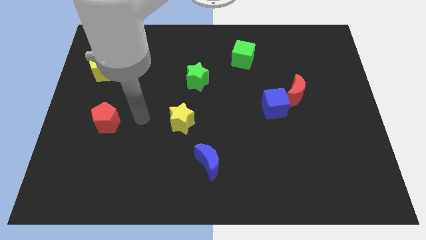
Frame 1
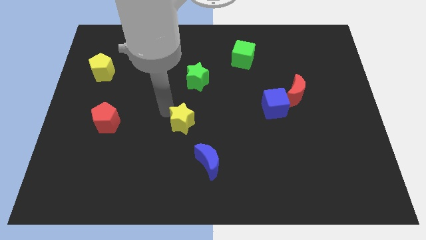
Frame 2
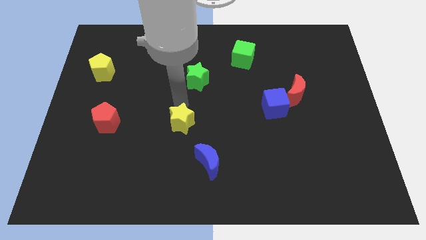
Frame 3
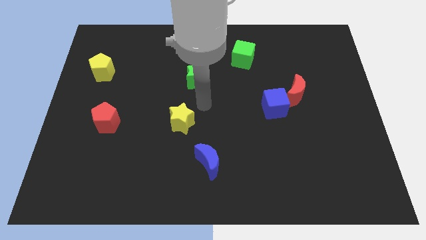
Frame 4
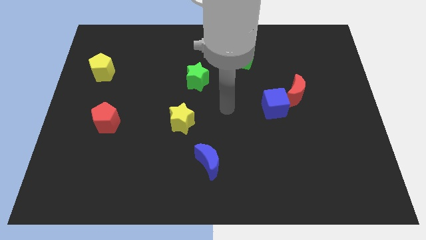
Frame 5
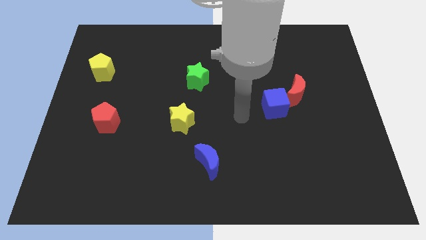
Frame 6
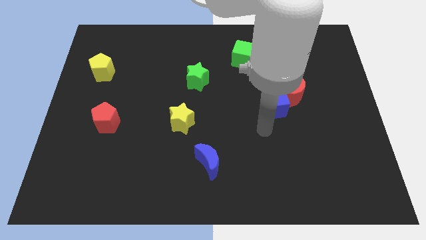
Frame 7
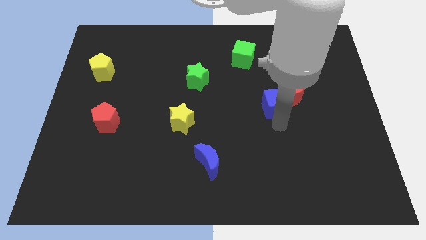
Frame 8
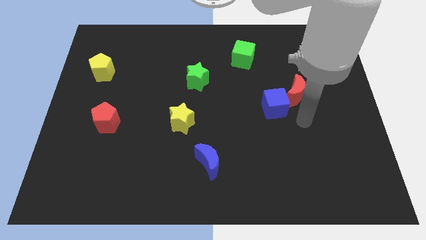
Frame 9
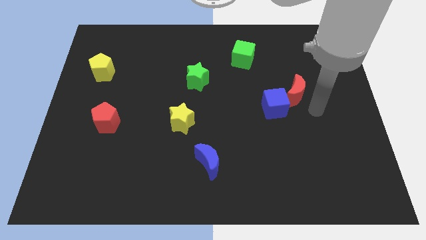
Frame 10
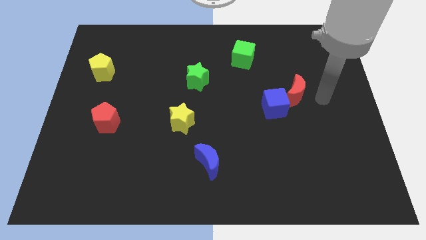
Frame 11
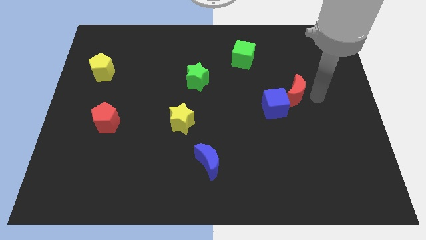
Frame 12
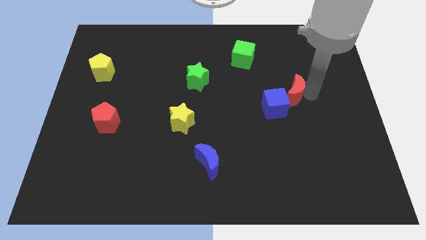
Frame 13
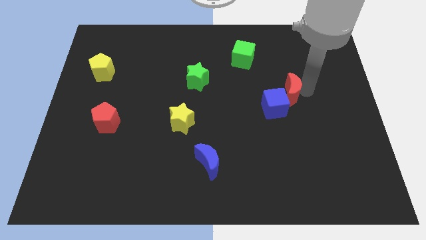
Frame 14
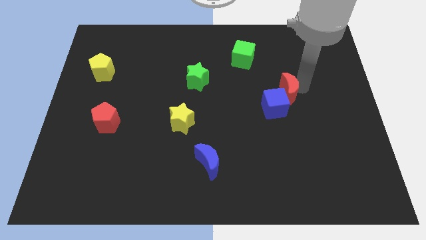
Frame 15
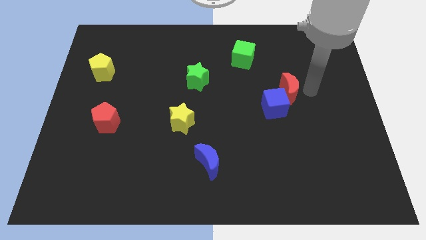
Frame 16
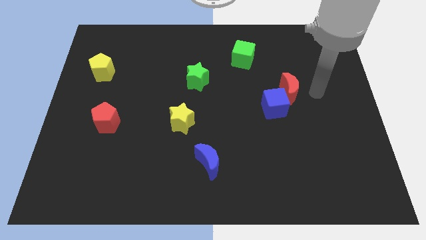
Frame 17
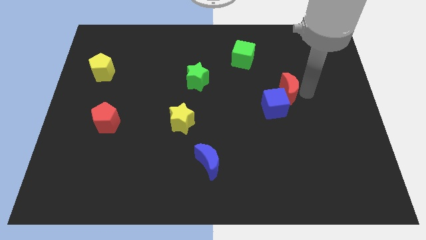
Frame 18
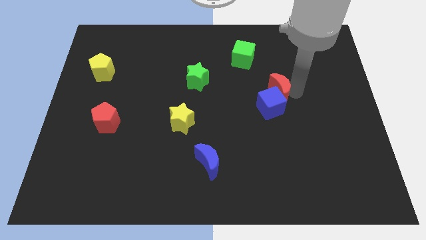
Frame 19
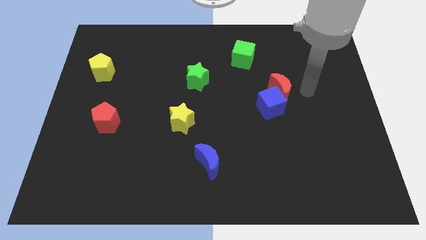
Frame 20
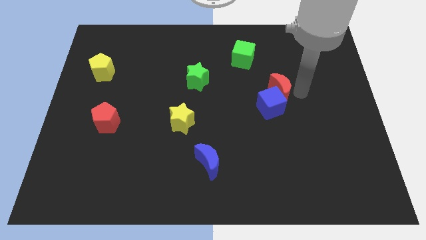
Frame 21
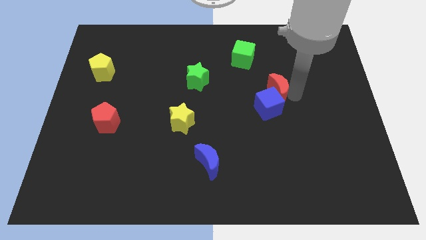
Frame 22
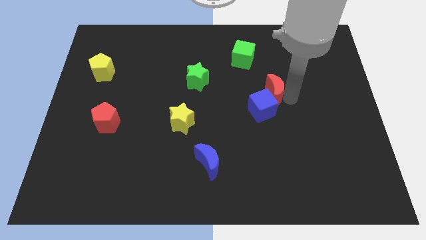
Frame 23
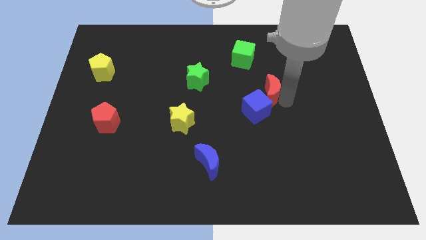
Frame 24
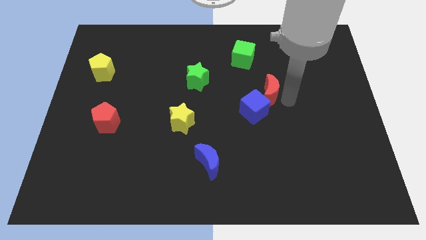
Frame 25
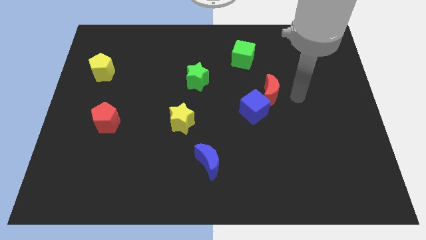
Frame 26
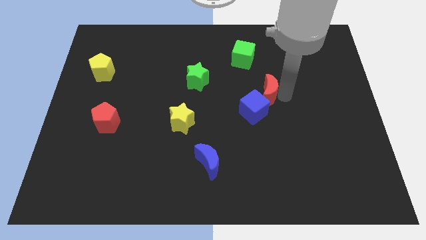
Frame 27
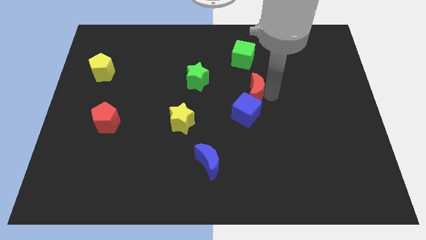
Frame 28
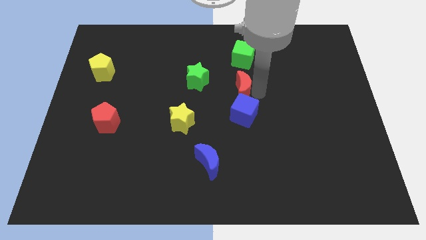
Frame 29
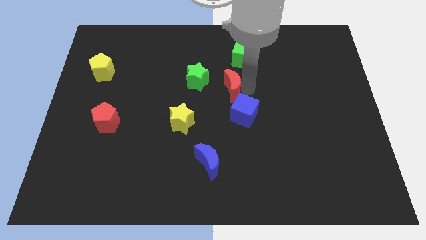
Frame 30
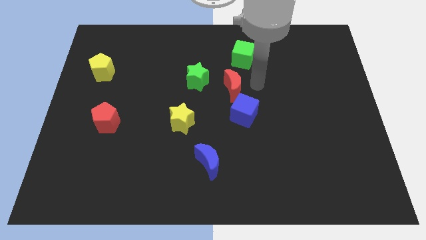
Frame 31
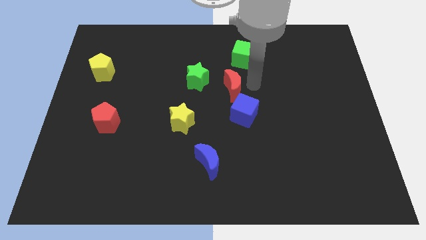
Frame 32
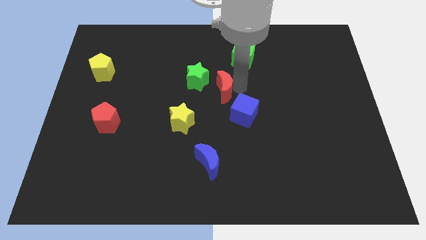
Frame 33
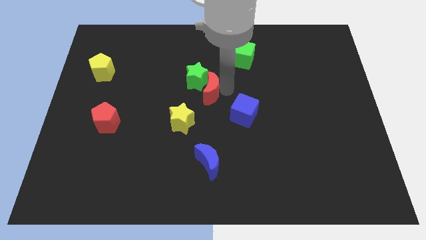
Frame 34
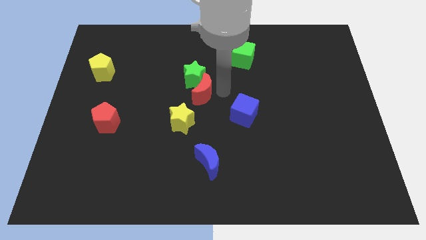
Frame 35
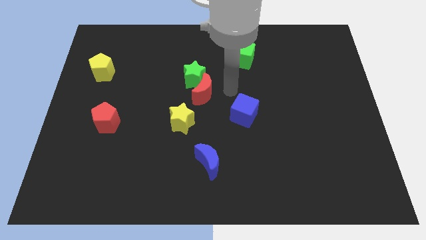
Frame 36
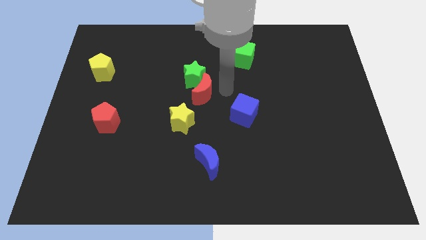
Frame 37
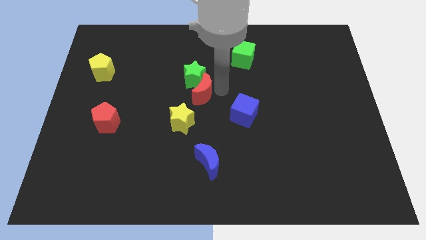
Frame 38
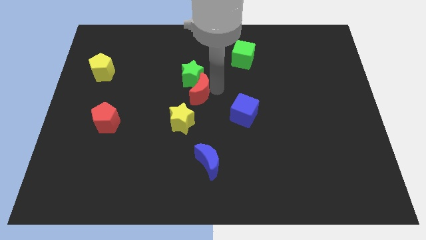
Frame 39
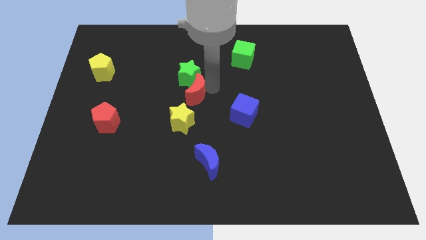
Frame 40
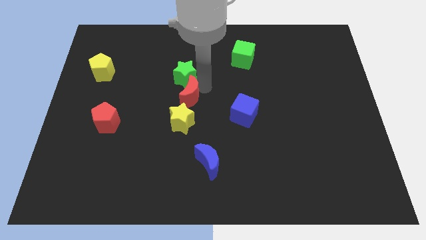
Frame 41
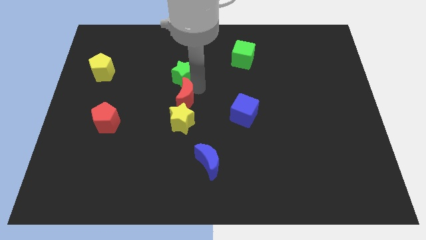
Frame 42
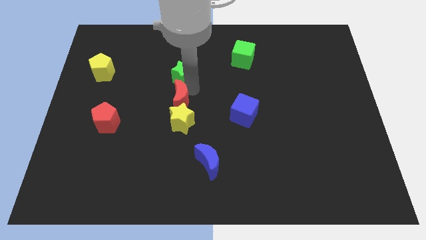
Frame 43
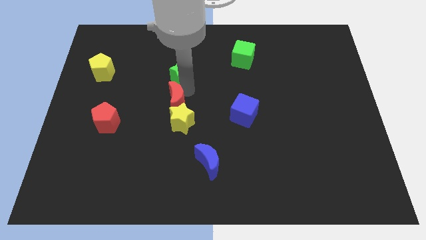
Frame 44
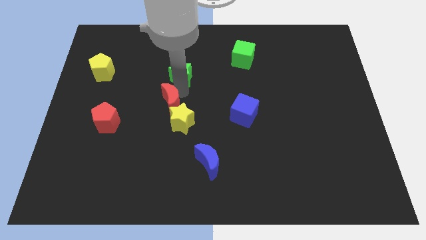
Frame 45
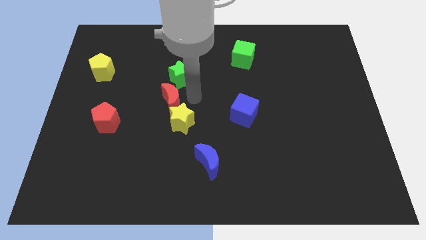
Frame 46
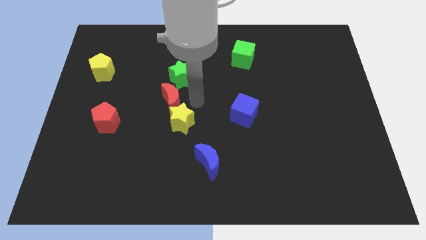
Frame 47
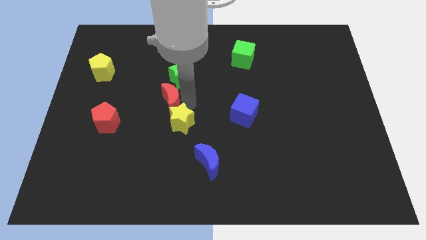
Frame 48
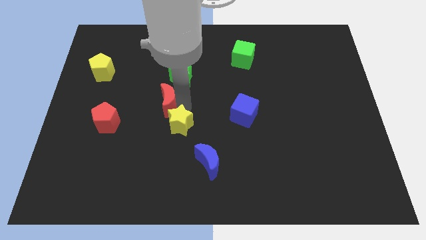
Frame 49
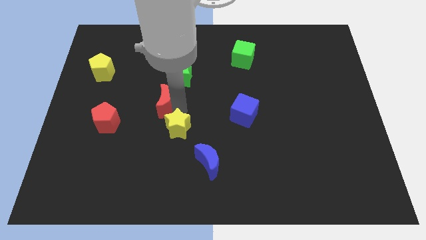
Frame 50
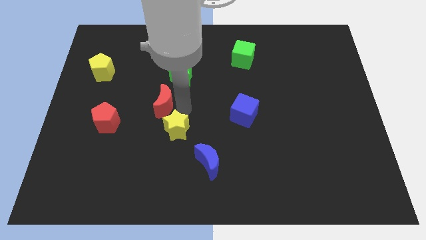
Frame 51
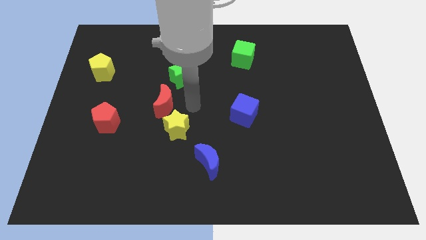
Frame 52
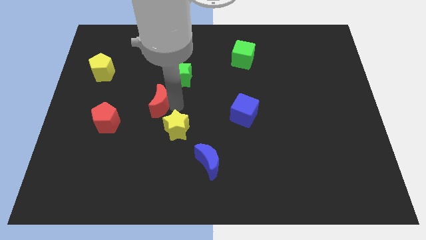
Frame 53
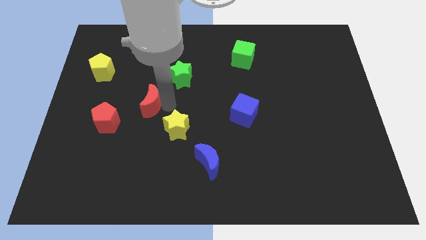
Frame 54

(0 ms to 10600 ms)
move the red moon diagonally up and to the right of the red pentagon

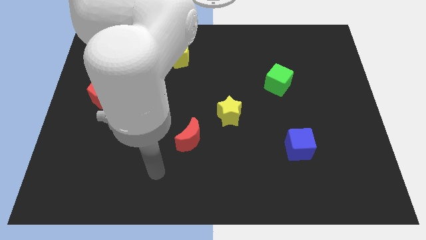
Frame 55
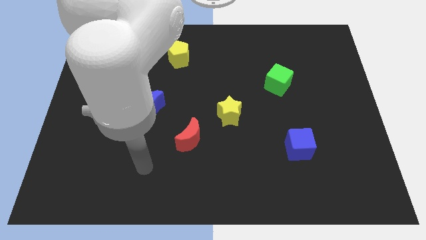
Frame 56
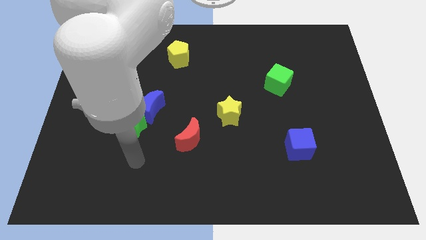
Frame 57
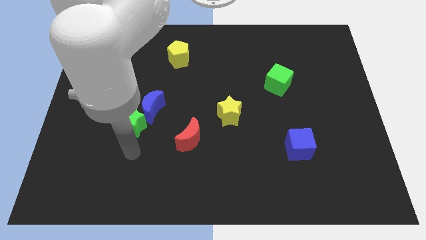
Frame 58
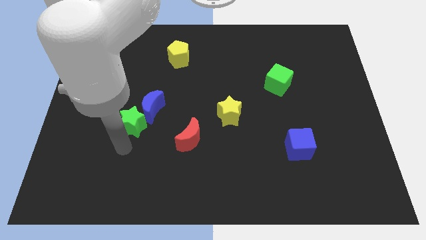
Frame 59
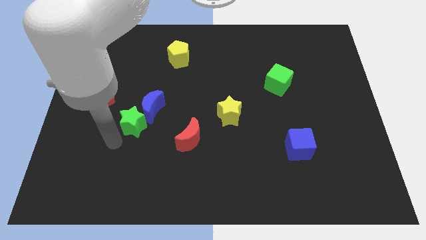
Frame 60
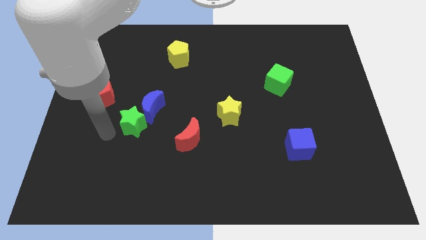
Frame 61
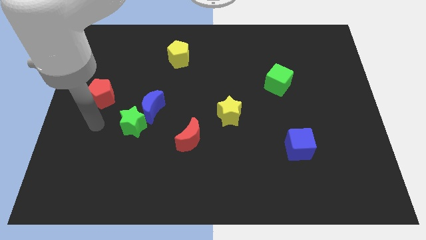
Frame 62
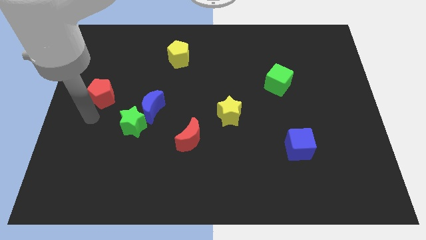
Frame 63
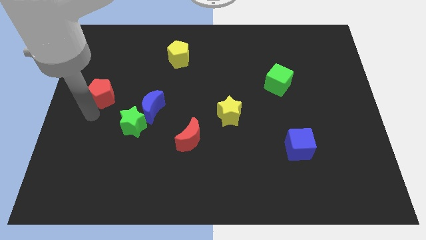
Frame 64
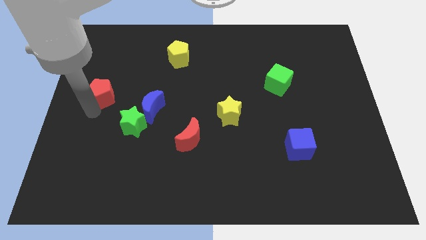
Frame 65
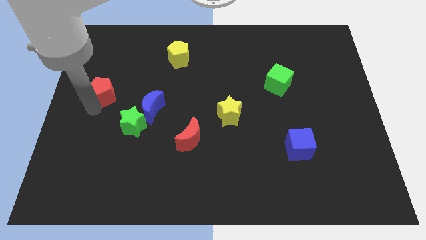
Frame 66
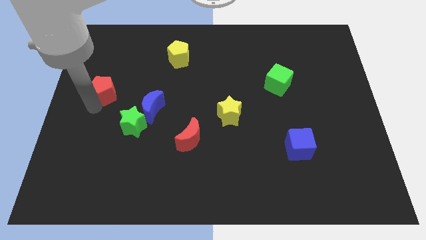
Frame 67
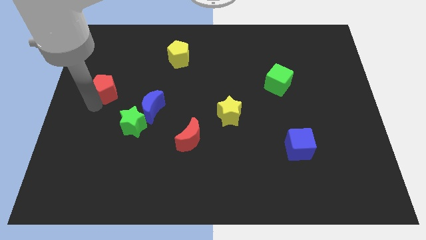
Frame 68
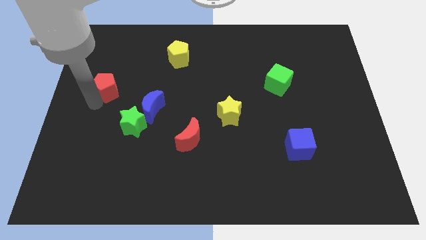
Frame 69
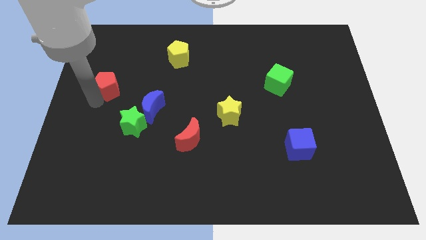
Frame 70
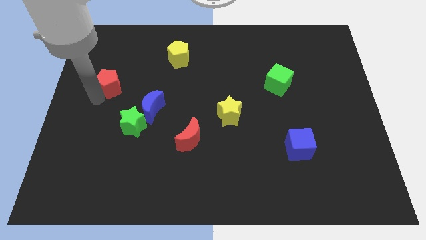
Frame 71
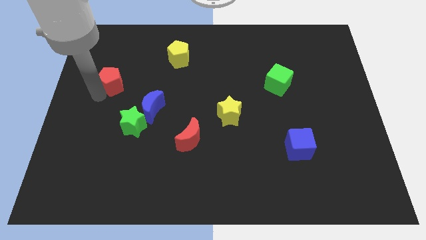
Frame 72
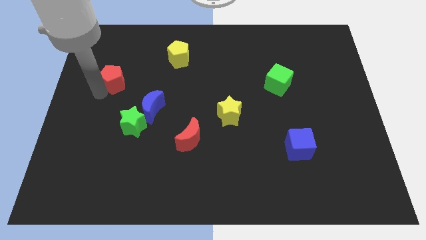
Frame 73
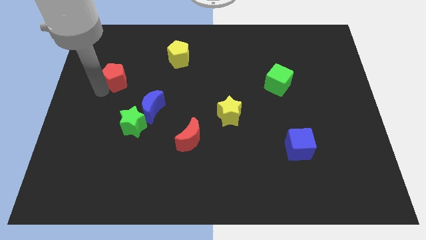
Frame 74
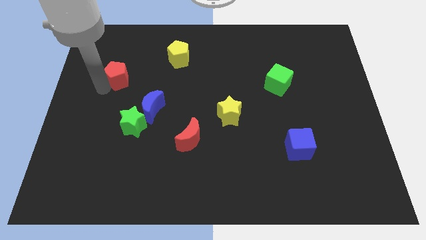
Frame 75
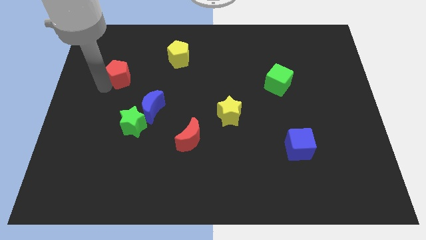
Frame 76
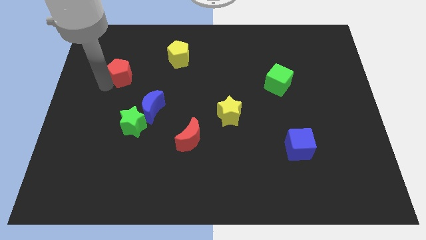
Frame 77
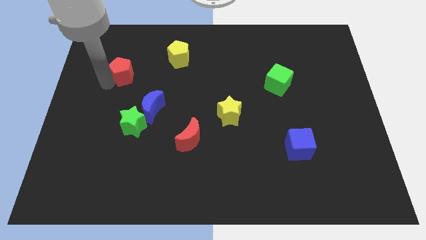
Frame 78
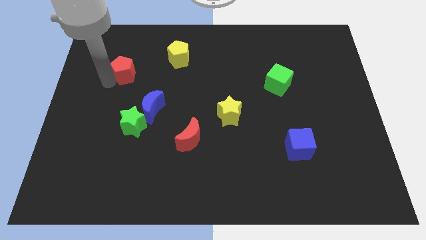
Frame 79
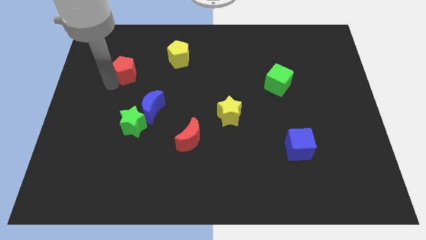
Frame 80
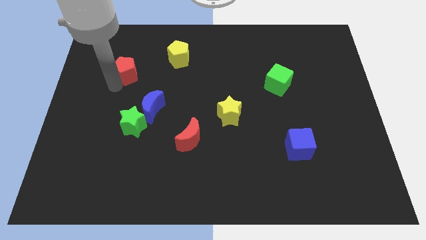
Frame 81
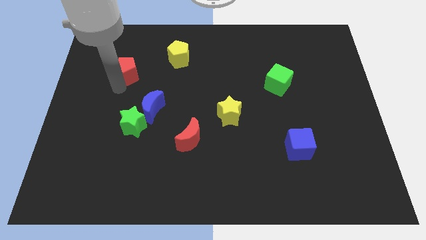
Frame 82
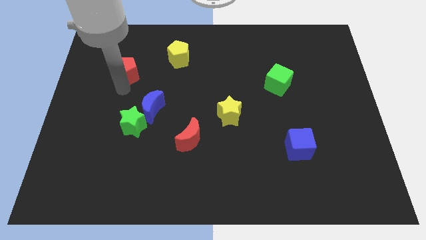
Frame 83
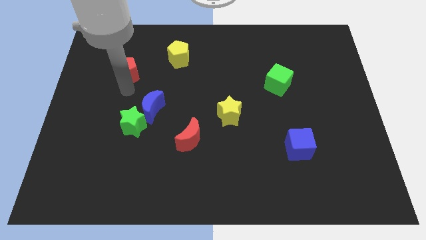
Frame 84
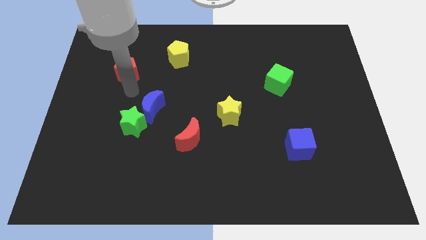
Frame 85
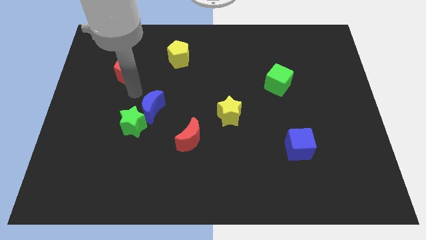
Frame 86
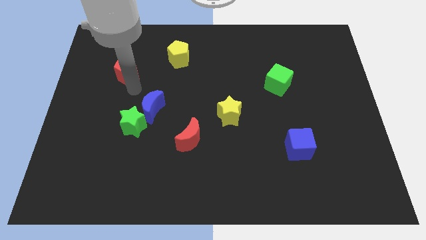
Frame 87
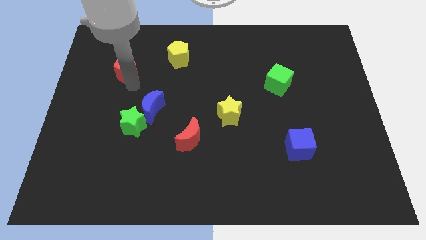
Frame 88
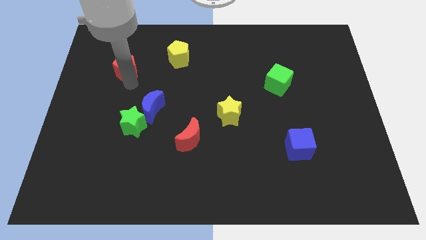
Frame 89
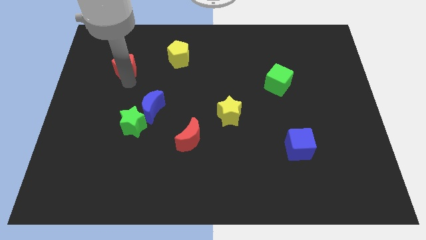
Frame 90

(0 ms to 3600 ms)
slide the red pentagon just left of the yellow pentagon
